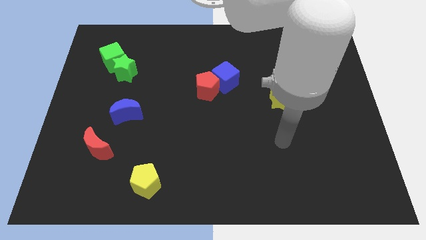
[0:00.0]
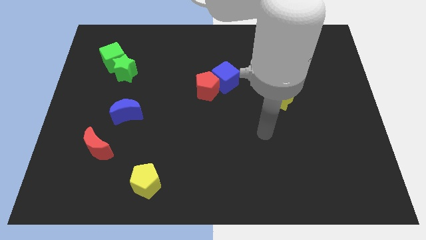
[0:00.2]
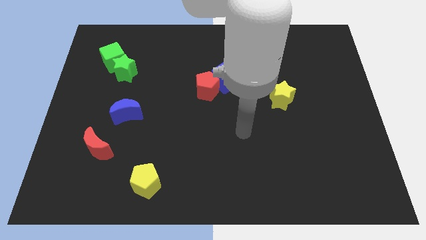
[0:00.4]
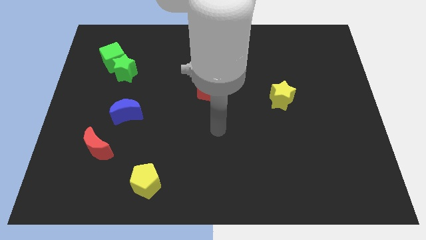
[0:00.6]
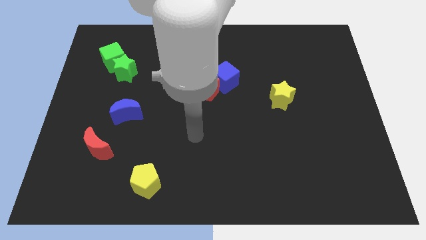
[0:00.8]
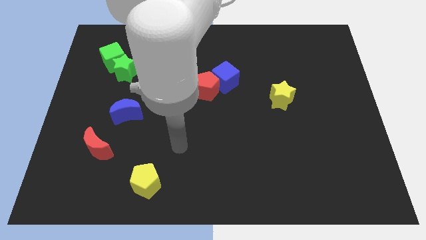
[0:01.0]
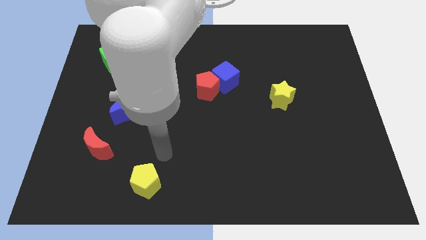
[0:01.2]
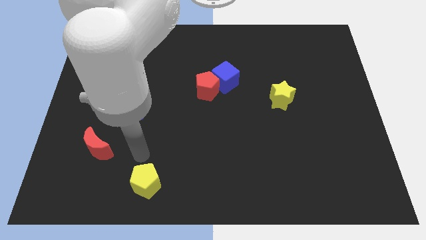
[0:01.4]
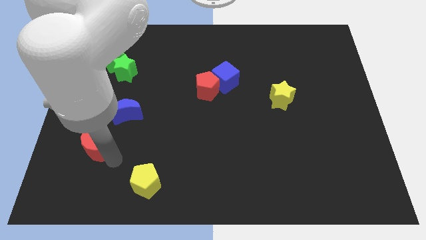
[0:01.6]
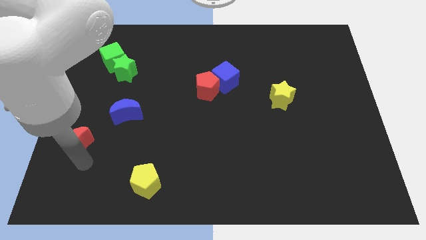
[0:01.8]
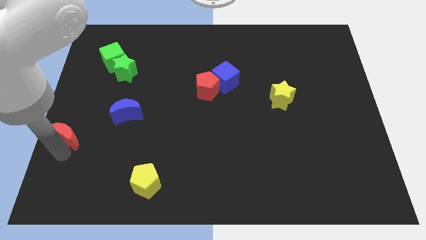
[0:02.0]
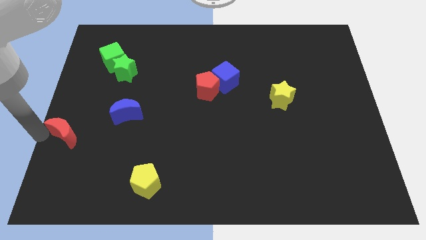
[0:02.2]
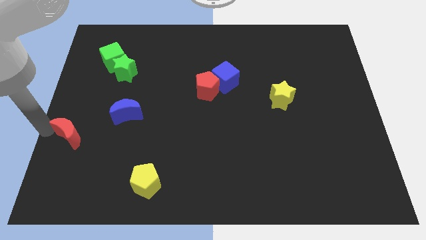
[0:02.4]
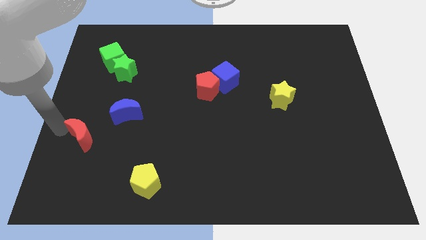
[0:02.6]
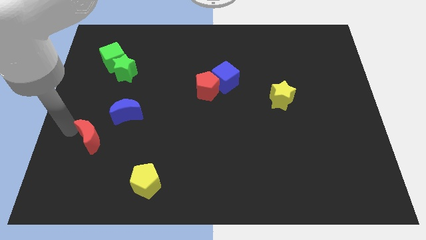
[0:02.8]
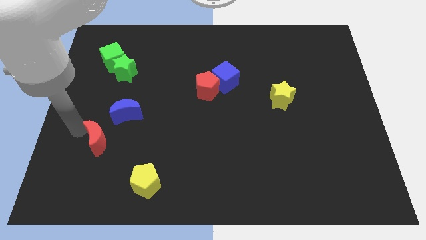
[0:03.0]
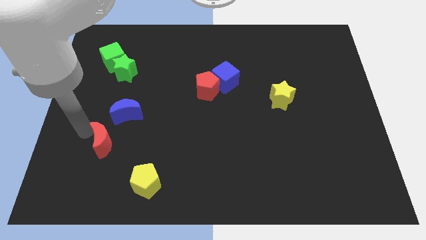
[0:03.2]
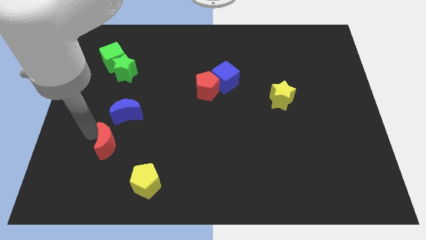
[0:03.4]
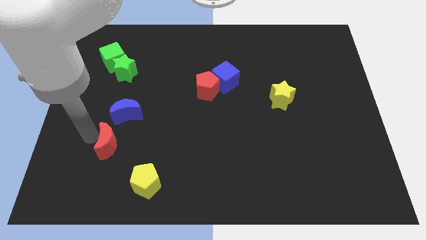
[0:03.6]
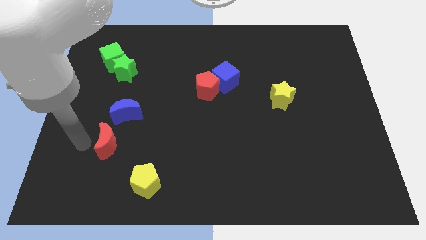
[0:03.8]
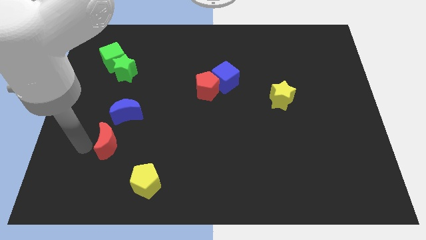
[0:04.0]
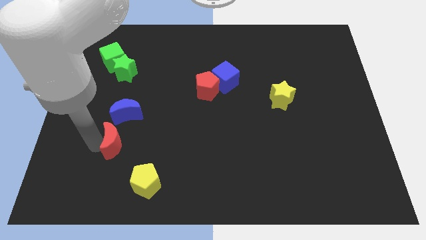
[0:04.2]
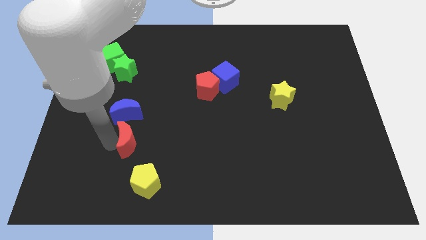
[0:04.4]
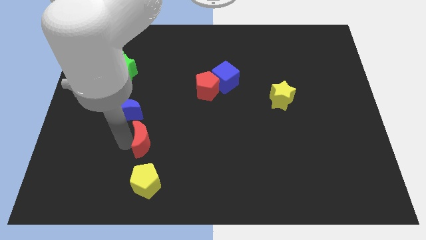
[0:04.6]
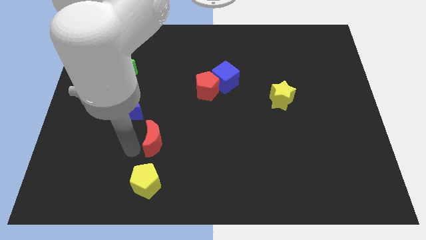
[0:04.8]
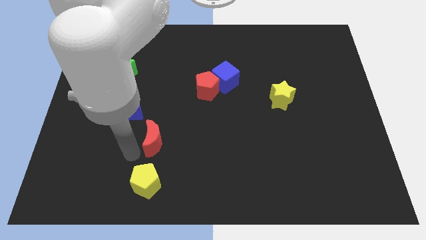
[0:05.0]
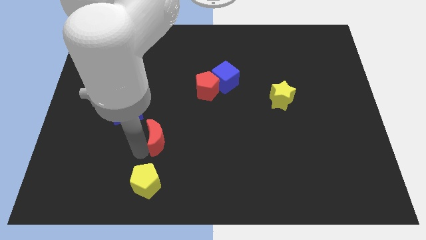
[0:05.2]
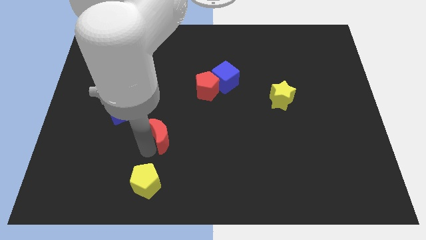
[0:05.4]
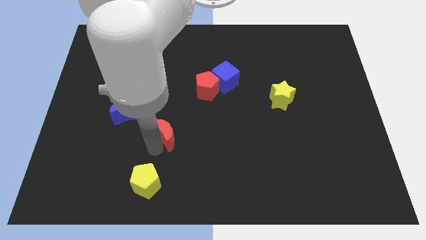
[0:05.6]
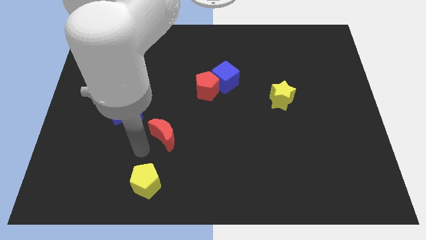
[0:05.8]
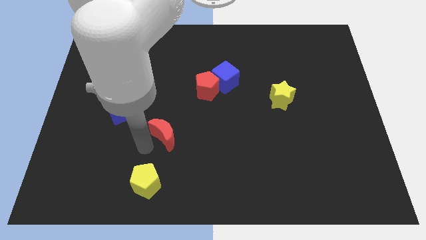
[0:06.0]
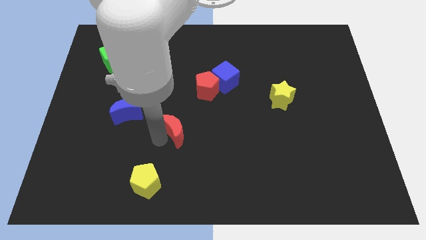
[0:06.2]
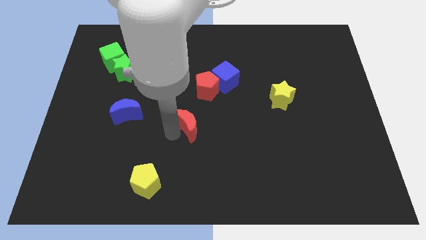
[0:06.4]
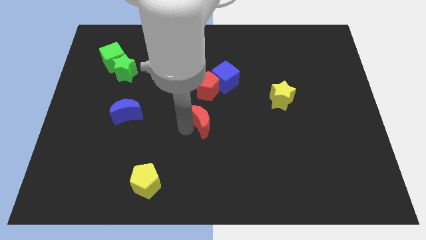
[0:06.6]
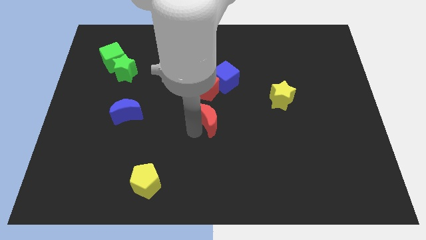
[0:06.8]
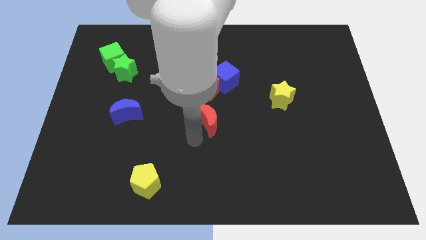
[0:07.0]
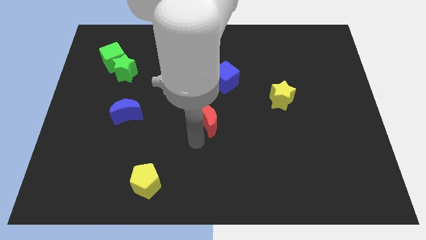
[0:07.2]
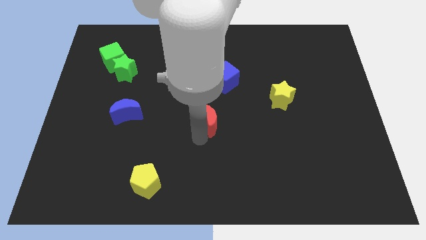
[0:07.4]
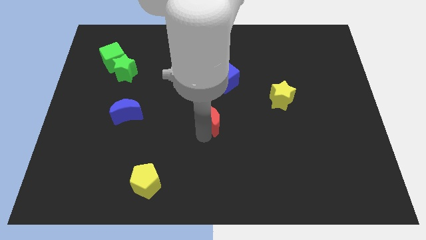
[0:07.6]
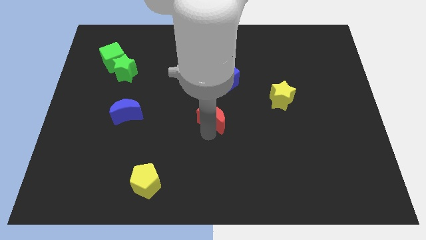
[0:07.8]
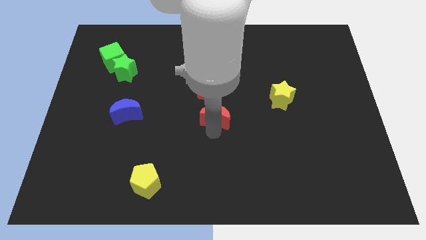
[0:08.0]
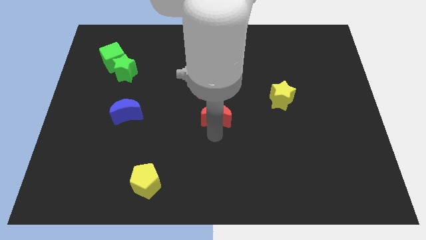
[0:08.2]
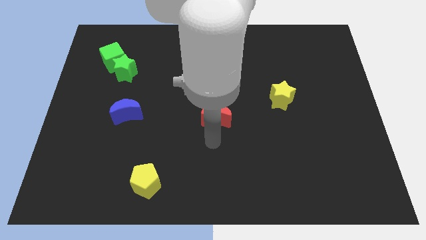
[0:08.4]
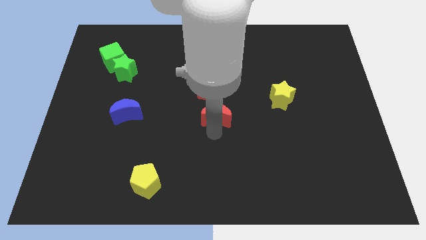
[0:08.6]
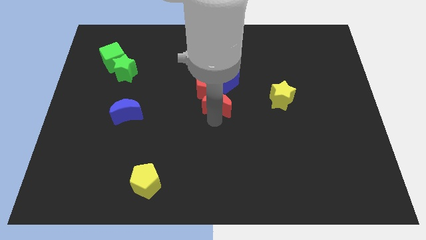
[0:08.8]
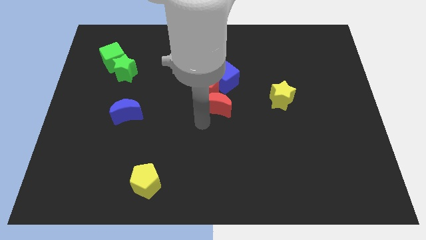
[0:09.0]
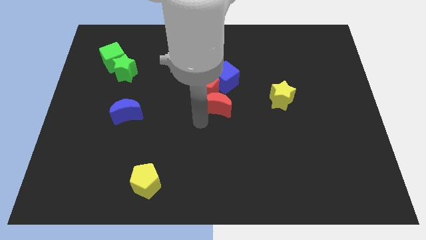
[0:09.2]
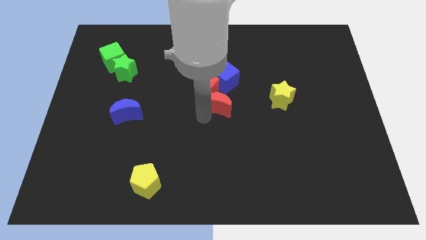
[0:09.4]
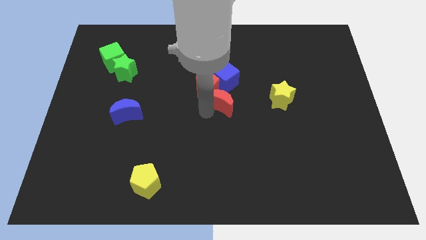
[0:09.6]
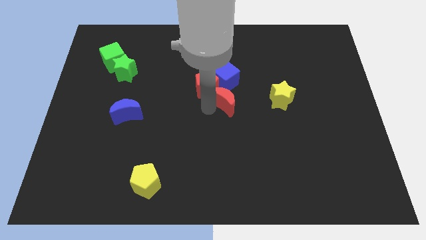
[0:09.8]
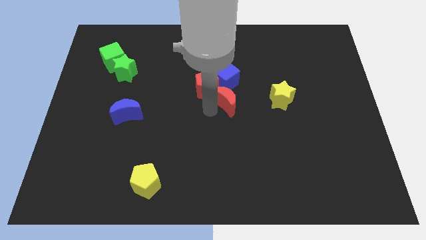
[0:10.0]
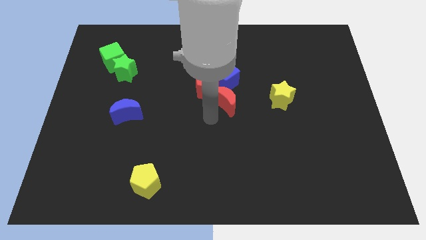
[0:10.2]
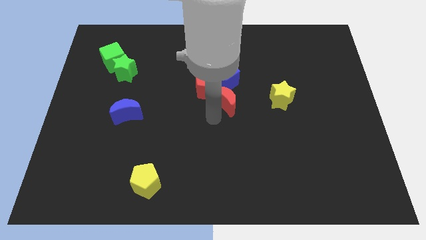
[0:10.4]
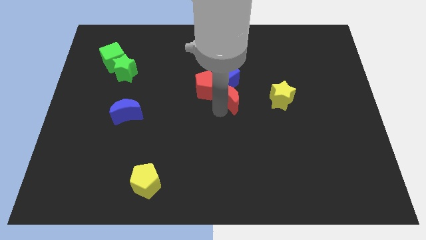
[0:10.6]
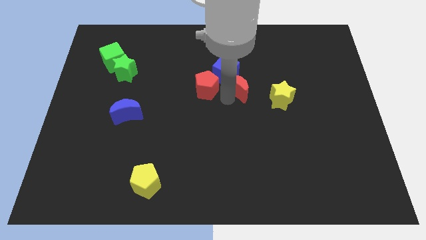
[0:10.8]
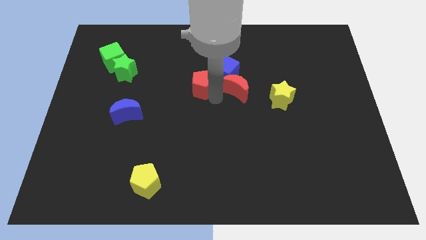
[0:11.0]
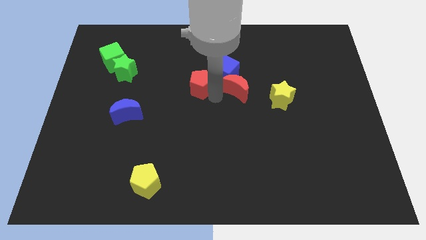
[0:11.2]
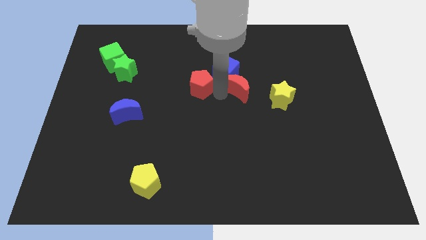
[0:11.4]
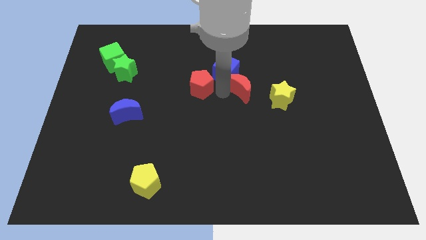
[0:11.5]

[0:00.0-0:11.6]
push the red moon to the top left of the yellow star

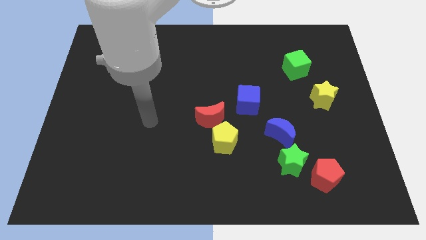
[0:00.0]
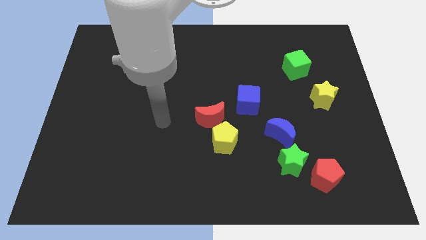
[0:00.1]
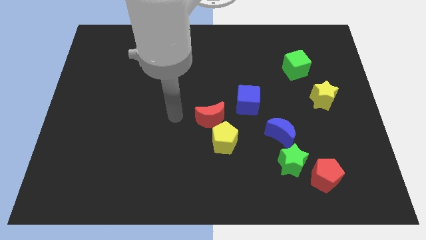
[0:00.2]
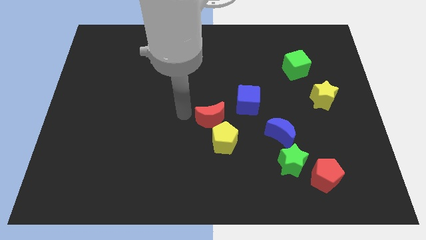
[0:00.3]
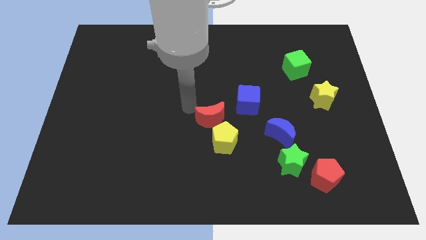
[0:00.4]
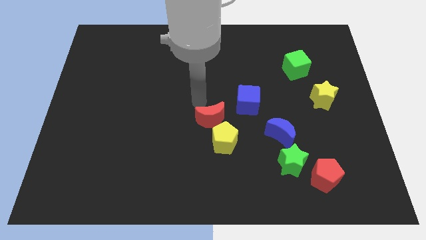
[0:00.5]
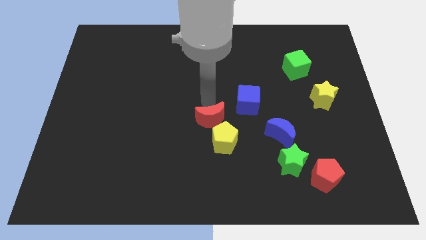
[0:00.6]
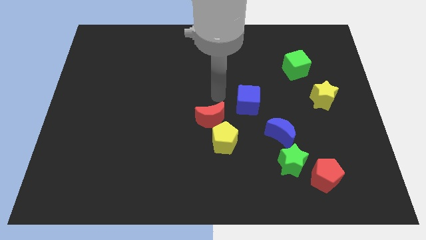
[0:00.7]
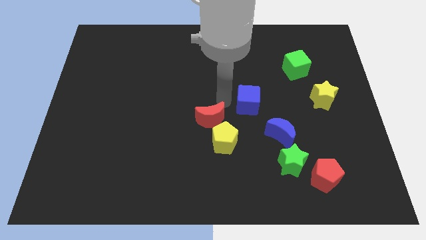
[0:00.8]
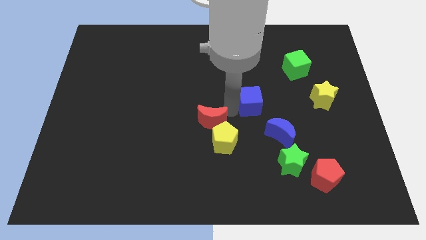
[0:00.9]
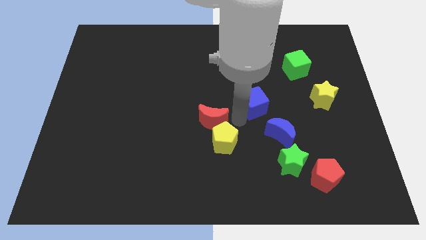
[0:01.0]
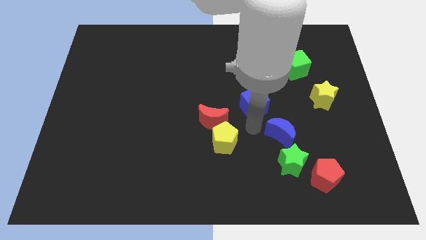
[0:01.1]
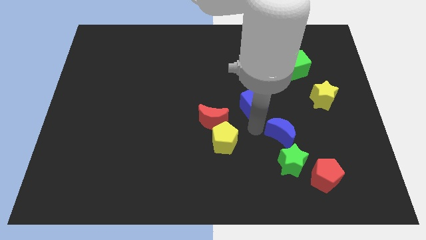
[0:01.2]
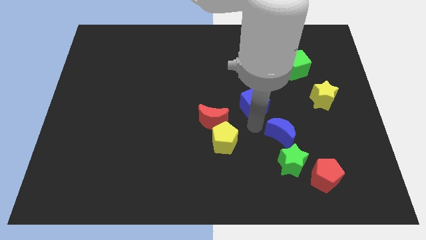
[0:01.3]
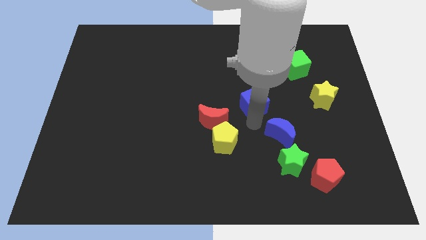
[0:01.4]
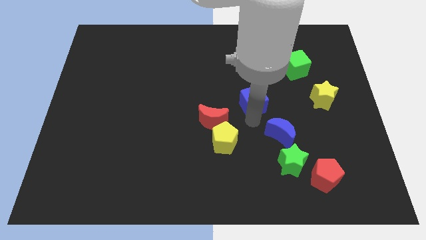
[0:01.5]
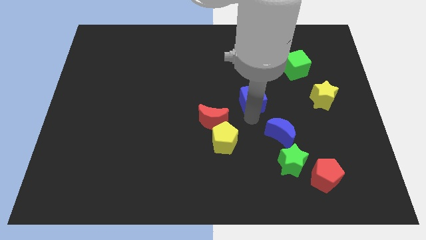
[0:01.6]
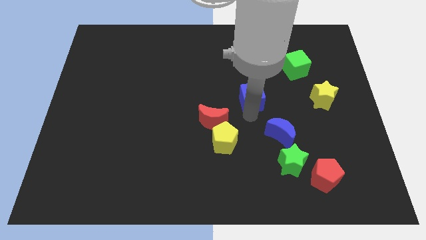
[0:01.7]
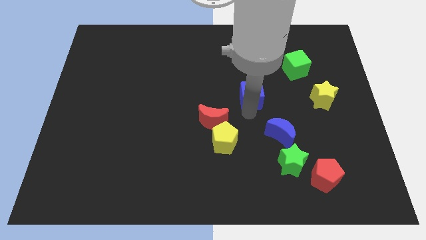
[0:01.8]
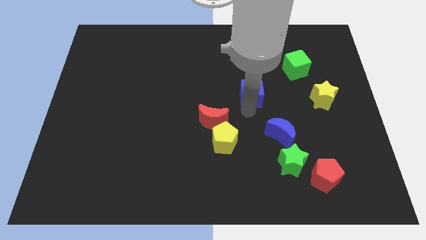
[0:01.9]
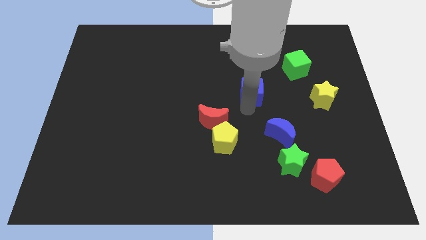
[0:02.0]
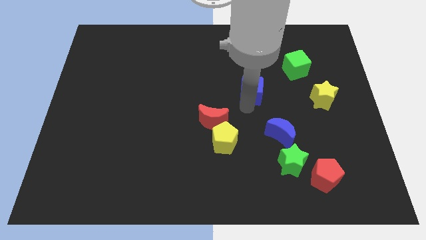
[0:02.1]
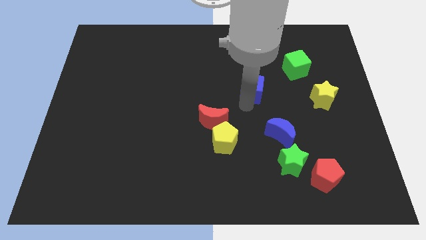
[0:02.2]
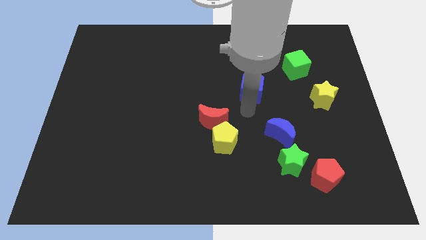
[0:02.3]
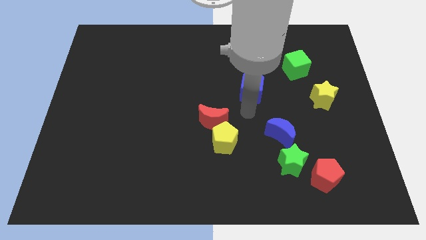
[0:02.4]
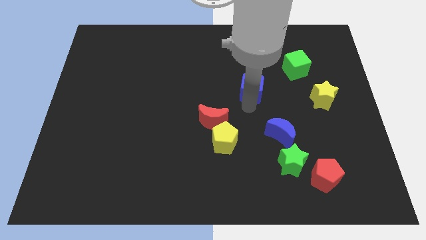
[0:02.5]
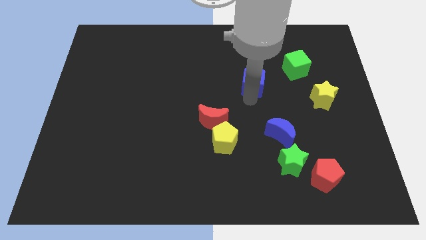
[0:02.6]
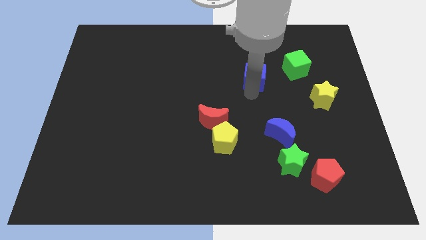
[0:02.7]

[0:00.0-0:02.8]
slide the blue cube to the left of the green cube
